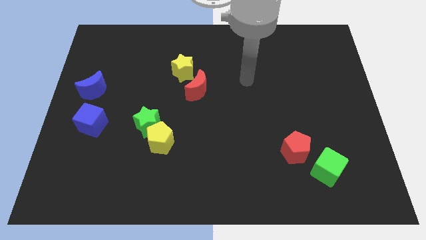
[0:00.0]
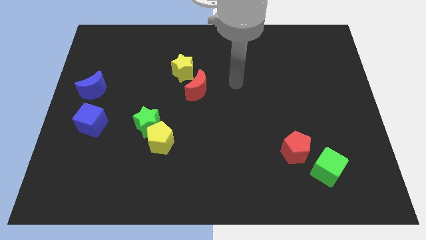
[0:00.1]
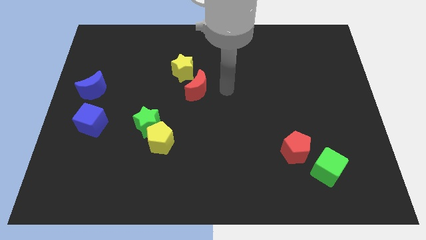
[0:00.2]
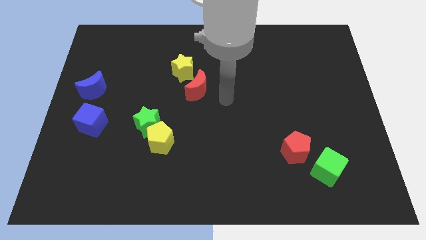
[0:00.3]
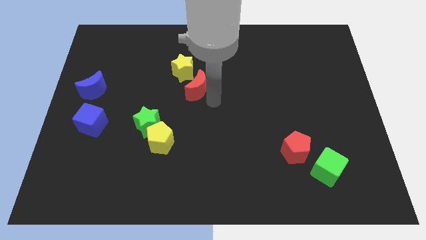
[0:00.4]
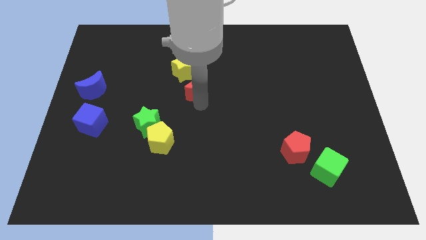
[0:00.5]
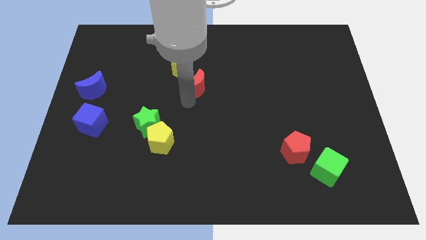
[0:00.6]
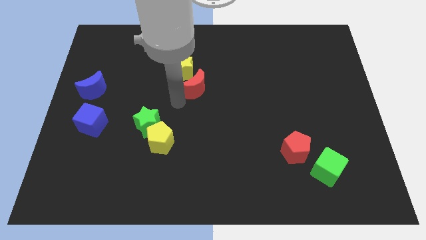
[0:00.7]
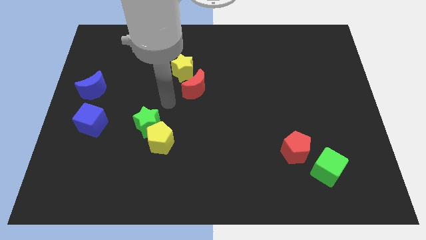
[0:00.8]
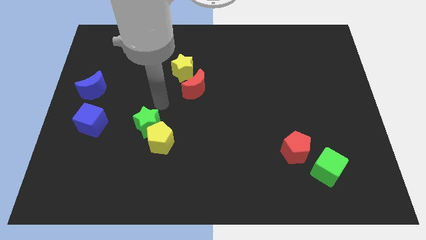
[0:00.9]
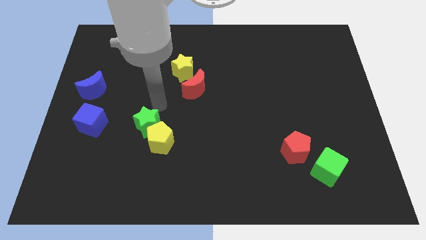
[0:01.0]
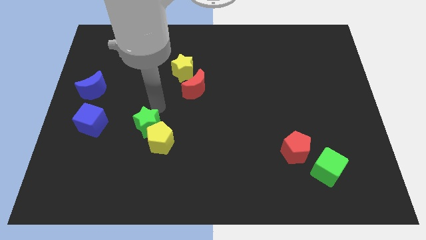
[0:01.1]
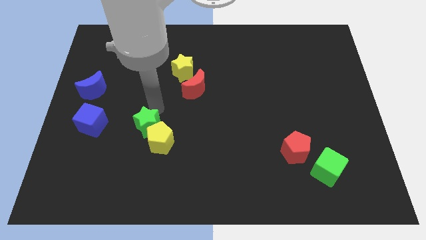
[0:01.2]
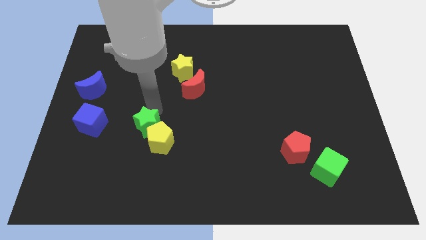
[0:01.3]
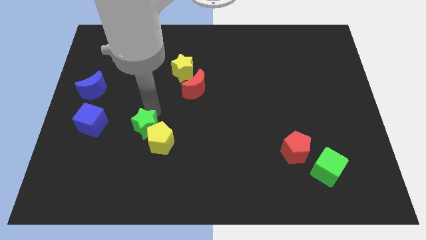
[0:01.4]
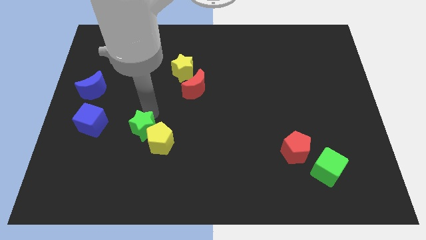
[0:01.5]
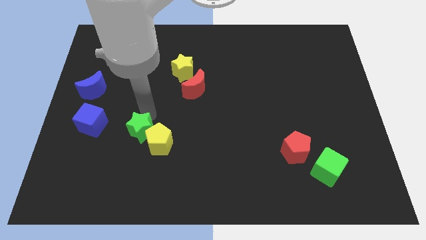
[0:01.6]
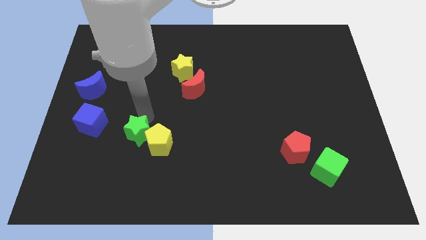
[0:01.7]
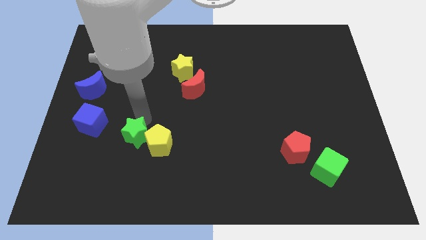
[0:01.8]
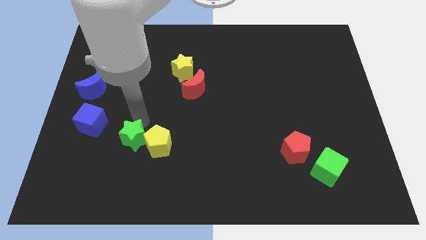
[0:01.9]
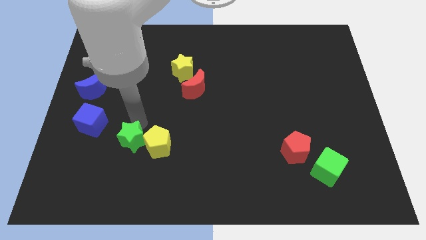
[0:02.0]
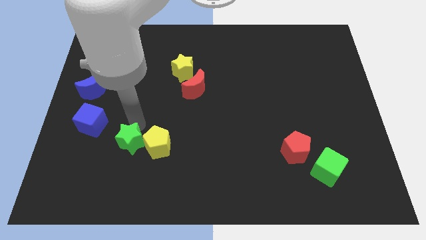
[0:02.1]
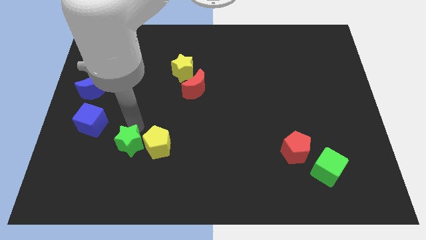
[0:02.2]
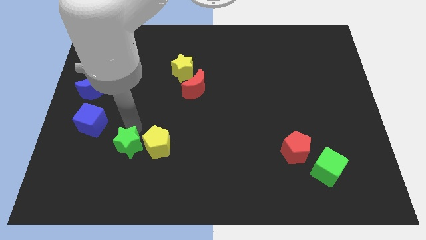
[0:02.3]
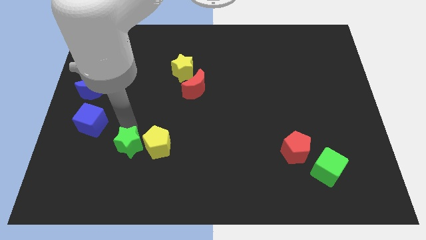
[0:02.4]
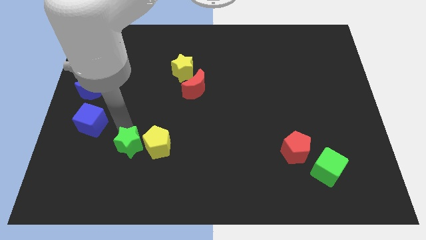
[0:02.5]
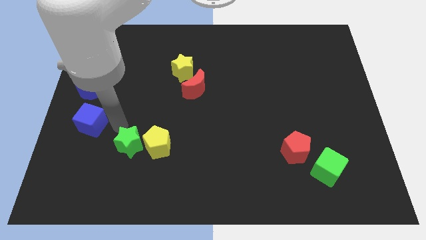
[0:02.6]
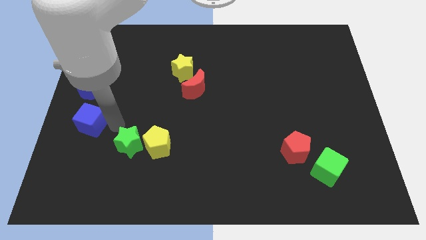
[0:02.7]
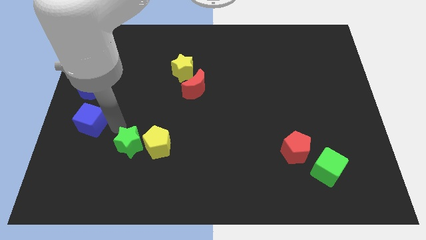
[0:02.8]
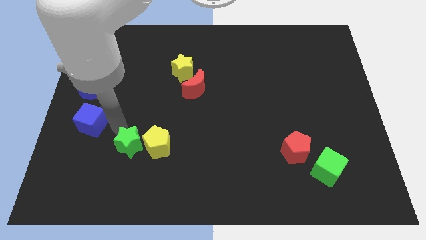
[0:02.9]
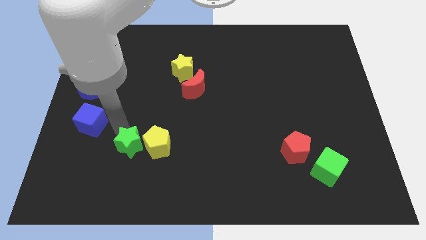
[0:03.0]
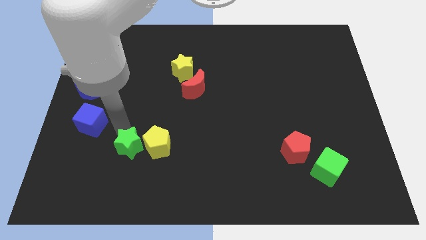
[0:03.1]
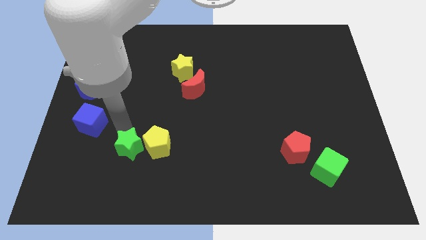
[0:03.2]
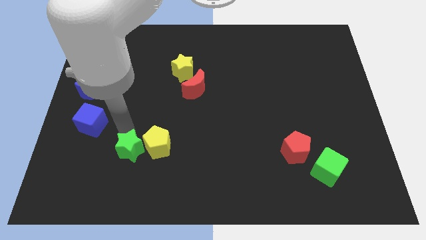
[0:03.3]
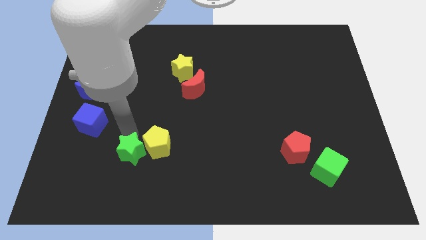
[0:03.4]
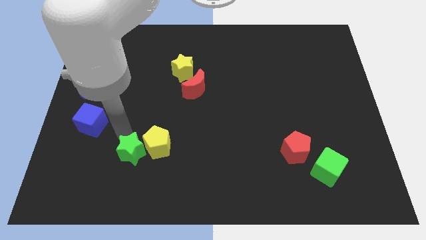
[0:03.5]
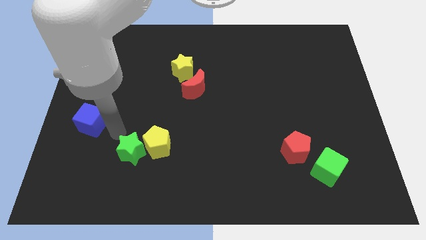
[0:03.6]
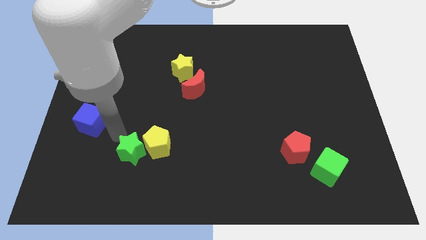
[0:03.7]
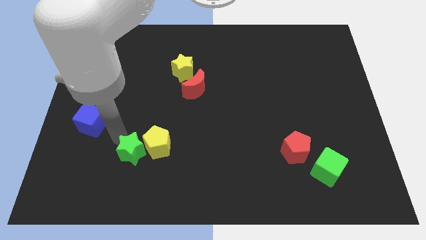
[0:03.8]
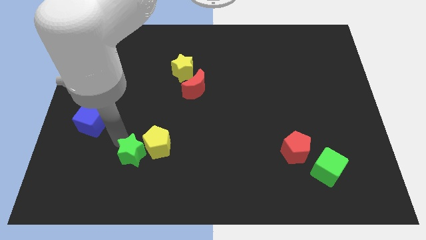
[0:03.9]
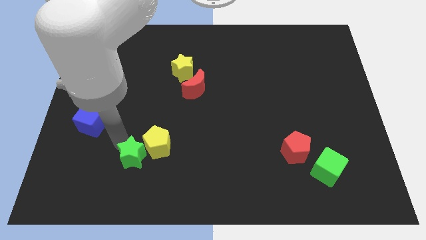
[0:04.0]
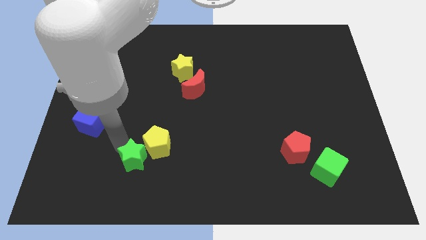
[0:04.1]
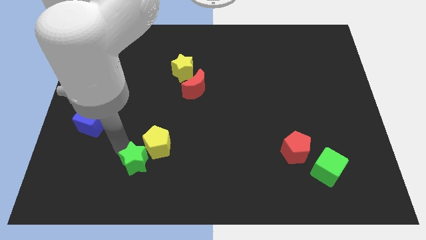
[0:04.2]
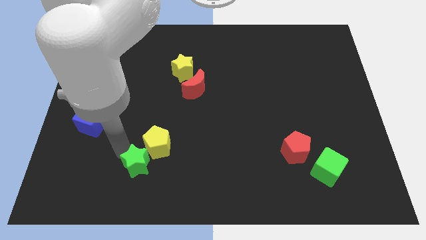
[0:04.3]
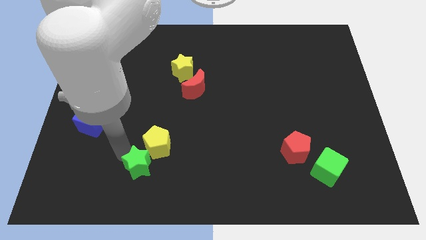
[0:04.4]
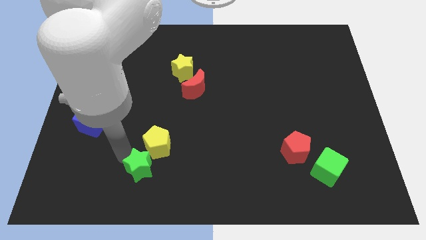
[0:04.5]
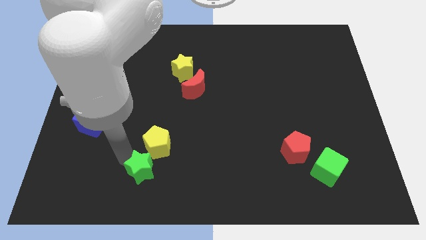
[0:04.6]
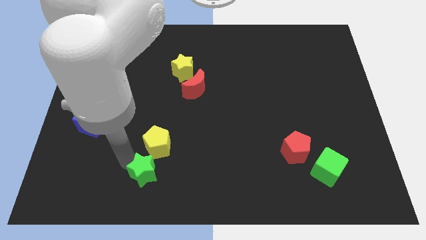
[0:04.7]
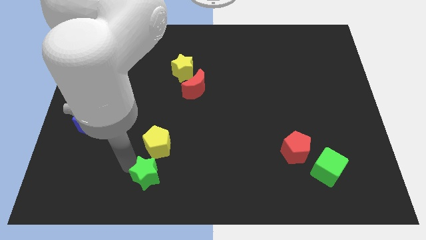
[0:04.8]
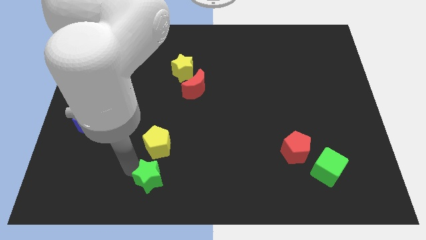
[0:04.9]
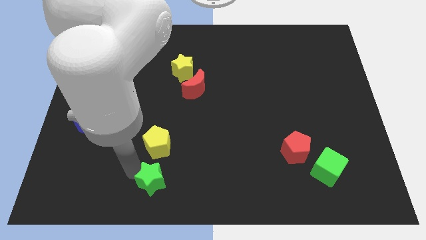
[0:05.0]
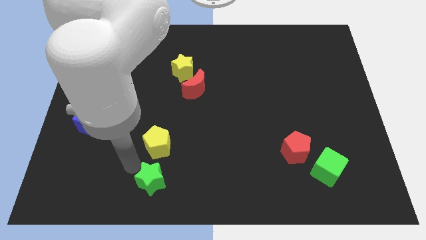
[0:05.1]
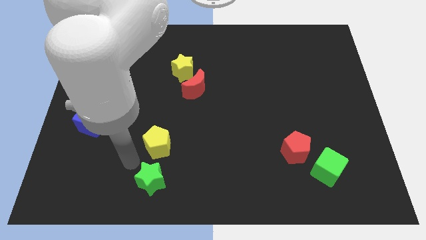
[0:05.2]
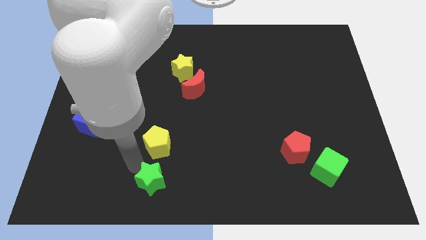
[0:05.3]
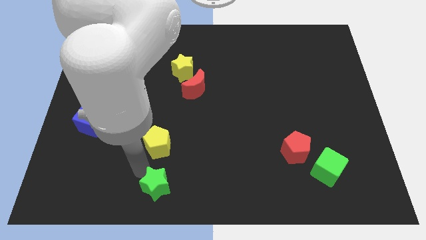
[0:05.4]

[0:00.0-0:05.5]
slide the green star to the bottom side

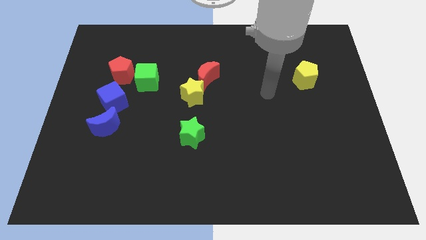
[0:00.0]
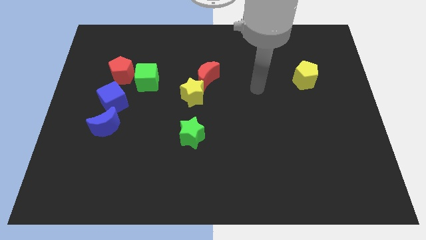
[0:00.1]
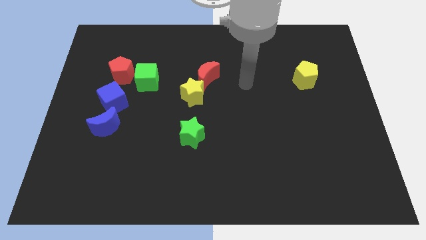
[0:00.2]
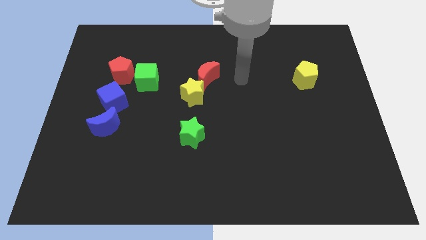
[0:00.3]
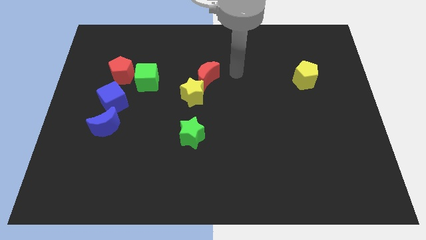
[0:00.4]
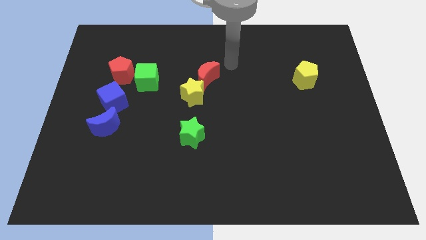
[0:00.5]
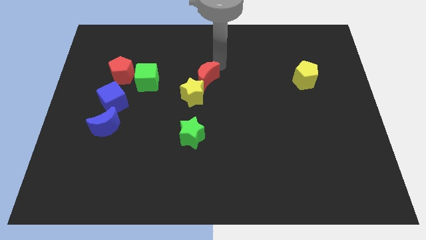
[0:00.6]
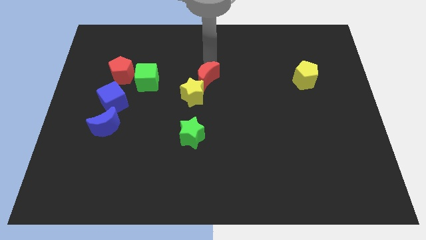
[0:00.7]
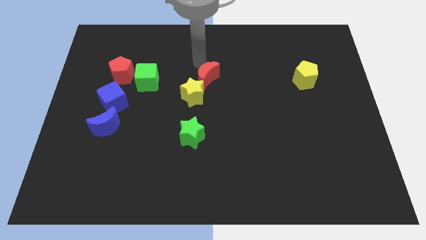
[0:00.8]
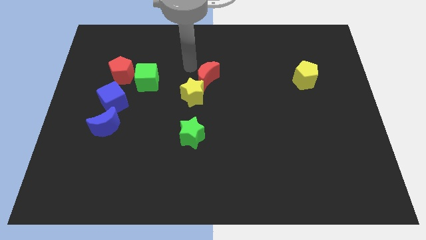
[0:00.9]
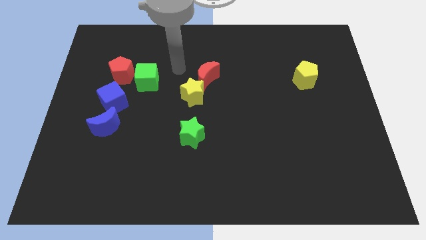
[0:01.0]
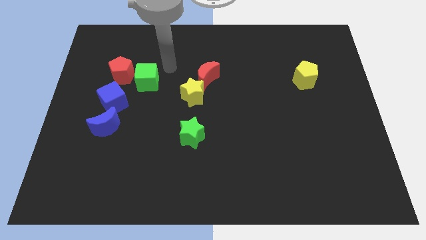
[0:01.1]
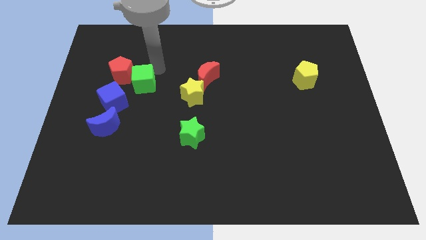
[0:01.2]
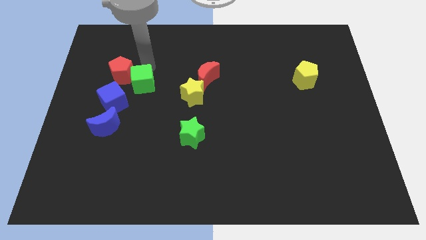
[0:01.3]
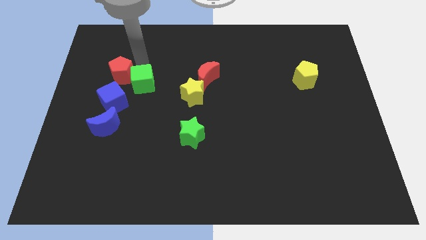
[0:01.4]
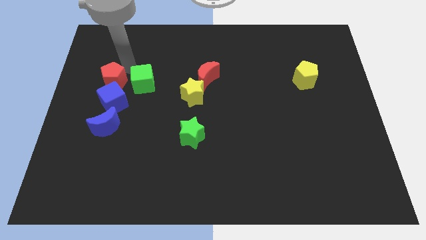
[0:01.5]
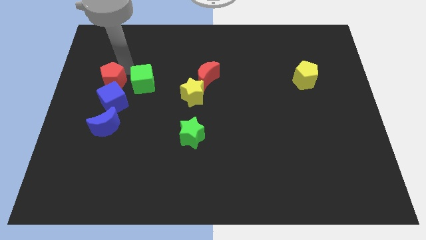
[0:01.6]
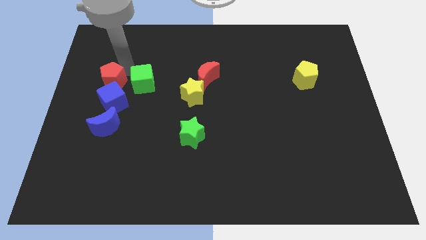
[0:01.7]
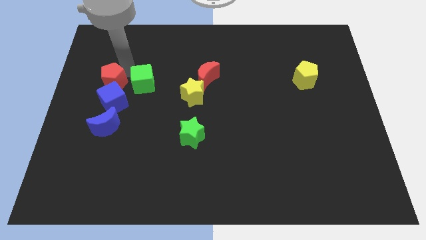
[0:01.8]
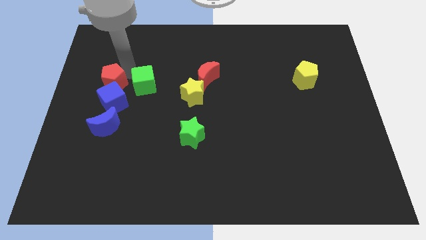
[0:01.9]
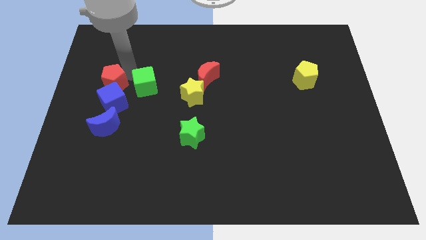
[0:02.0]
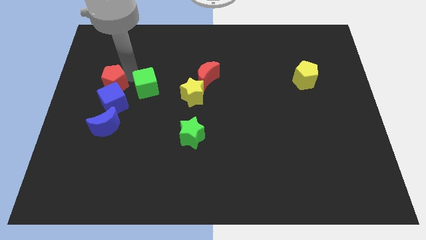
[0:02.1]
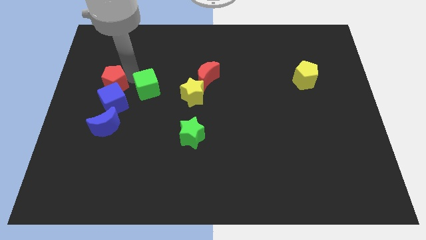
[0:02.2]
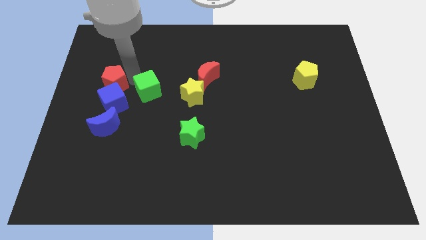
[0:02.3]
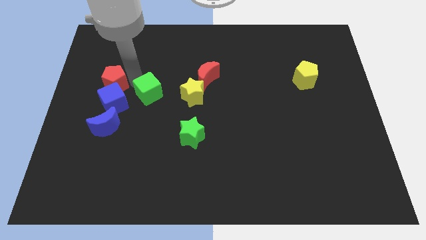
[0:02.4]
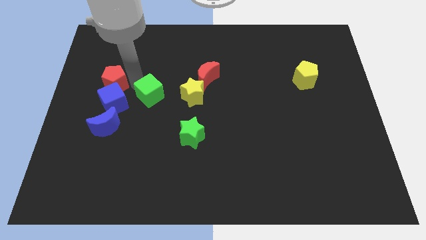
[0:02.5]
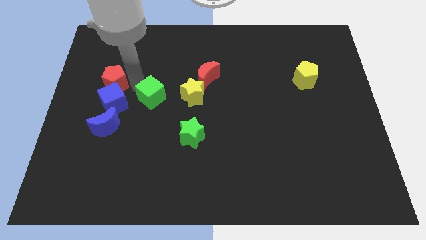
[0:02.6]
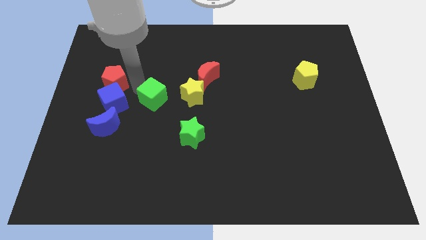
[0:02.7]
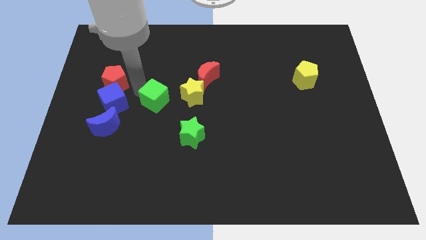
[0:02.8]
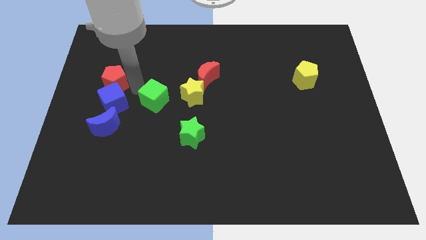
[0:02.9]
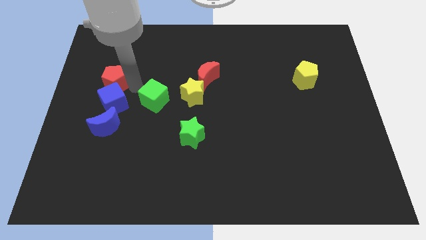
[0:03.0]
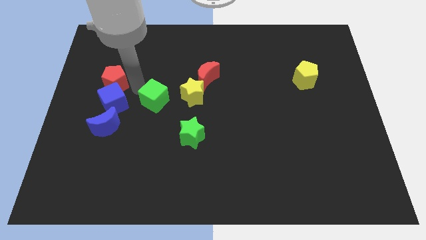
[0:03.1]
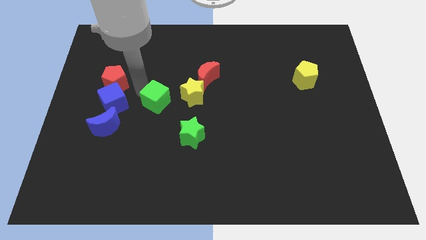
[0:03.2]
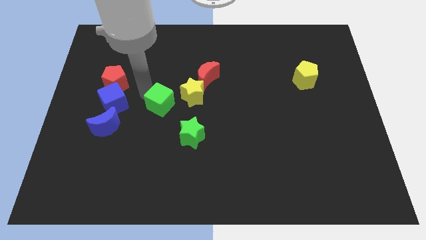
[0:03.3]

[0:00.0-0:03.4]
put the green cube to the middle of the board
